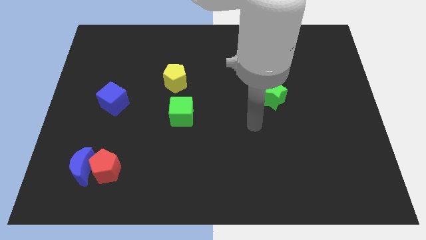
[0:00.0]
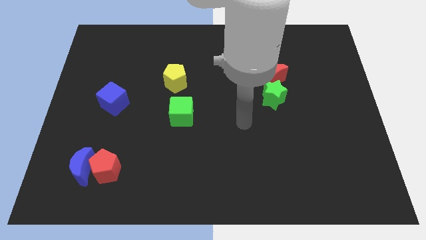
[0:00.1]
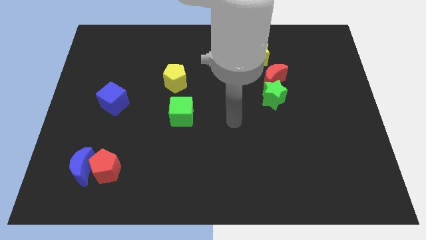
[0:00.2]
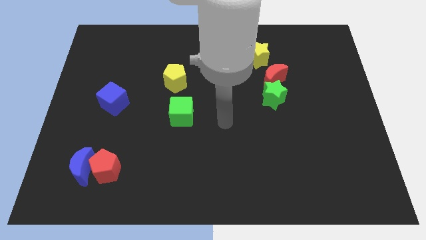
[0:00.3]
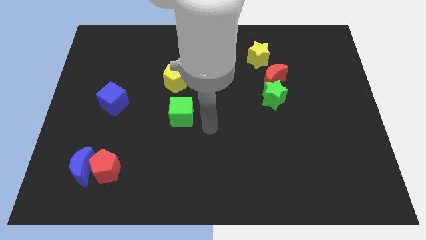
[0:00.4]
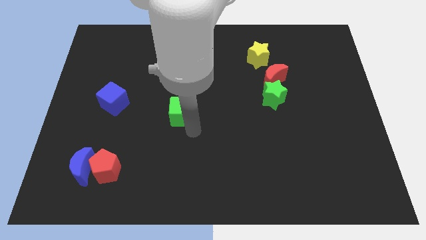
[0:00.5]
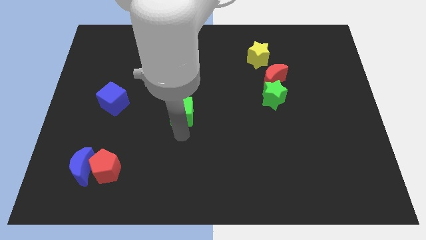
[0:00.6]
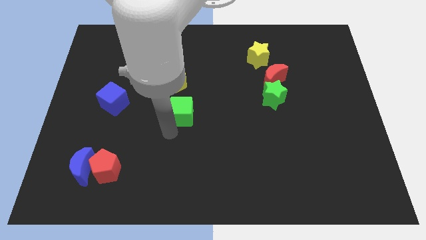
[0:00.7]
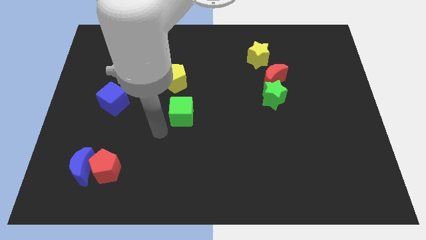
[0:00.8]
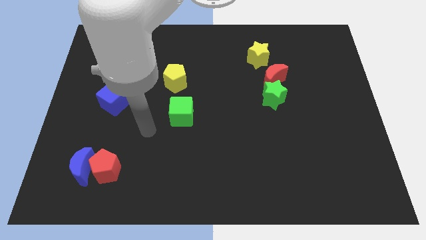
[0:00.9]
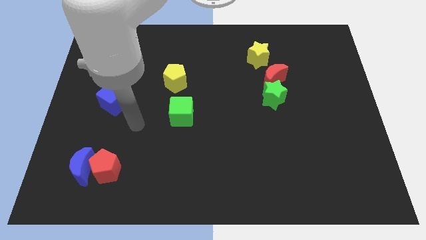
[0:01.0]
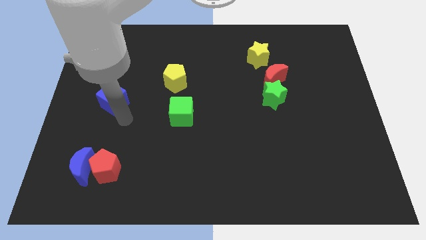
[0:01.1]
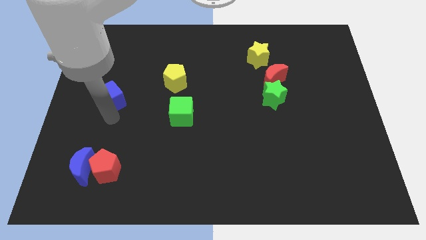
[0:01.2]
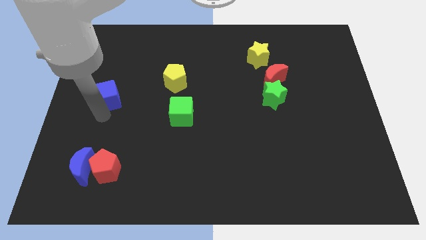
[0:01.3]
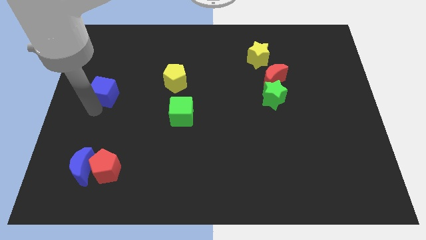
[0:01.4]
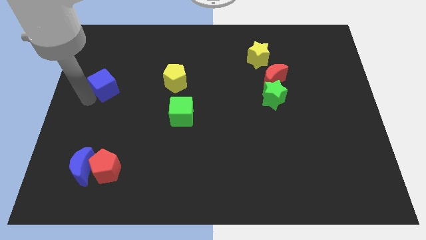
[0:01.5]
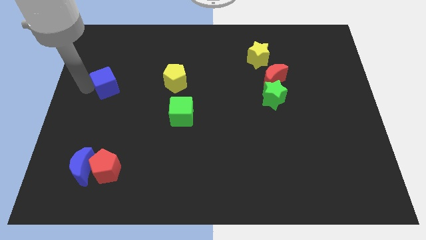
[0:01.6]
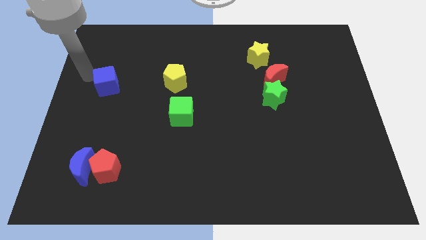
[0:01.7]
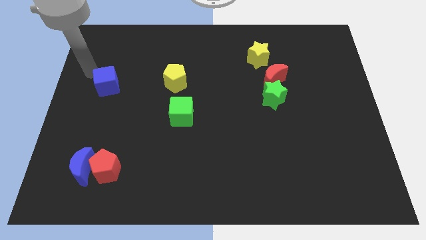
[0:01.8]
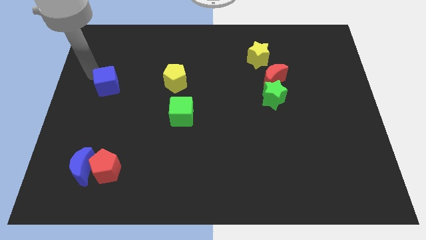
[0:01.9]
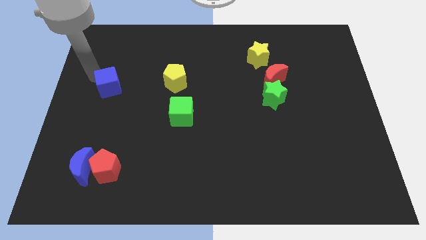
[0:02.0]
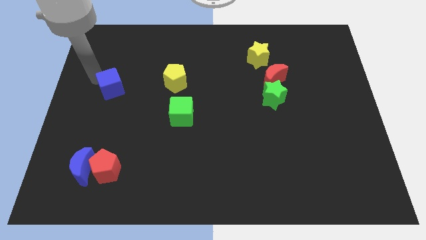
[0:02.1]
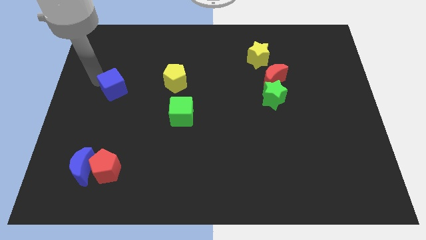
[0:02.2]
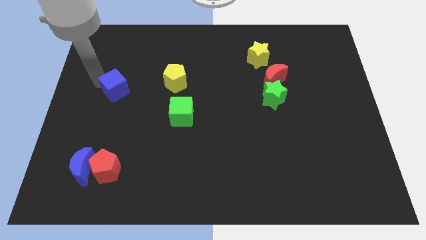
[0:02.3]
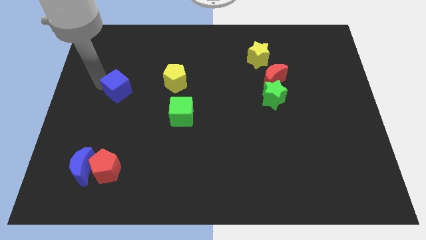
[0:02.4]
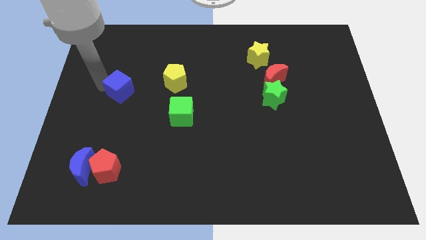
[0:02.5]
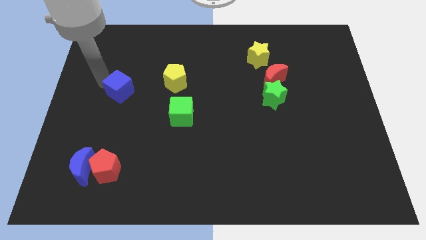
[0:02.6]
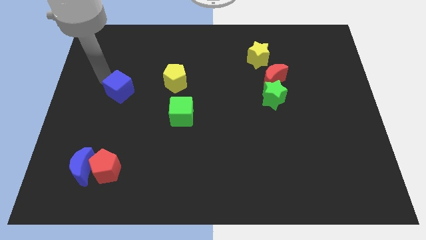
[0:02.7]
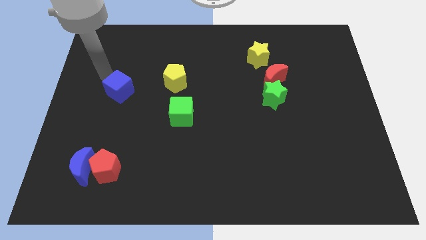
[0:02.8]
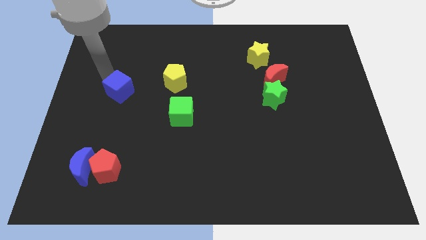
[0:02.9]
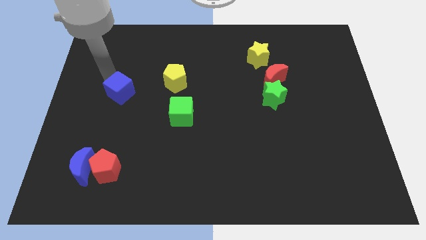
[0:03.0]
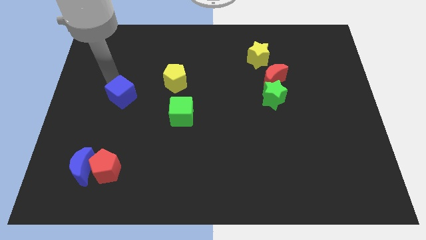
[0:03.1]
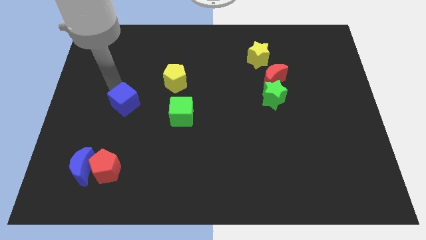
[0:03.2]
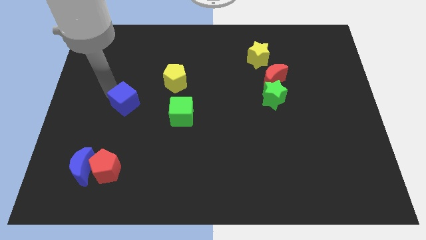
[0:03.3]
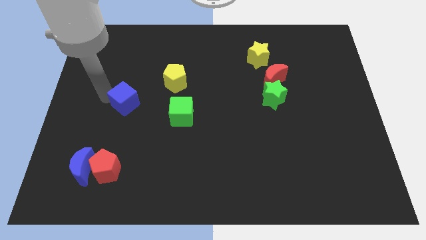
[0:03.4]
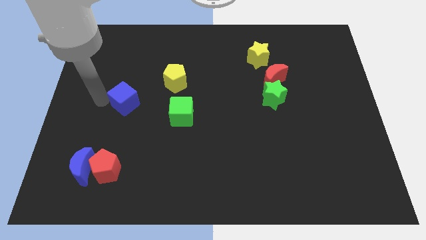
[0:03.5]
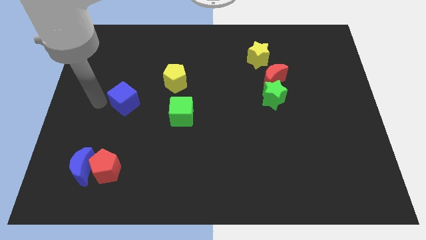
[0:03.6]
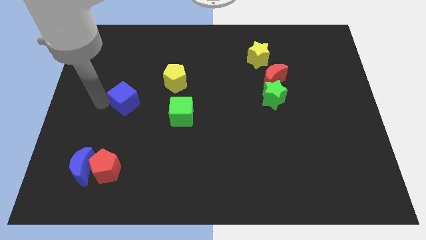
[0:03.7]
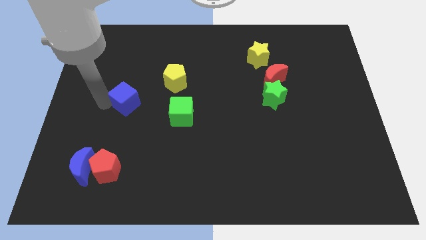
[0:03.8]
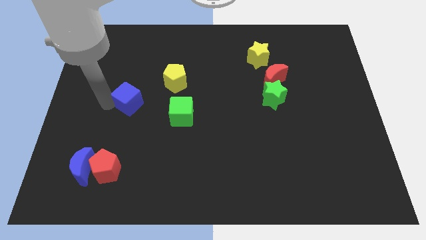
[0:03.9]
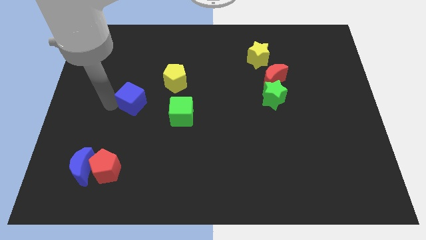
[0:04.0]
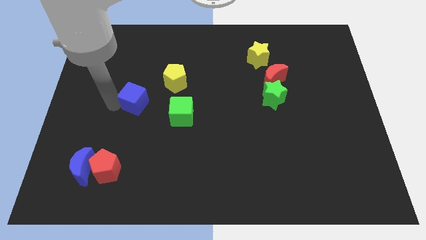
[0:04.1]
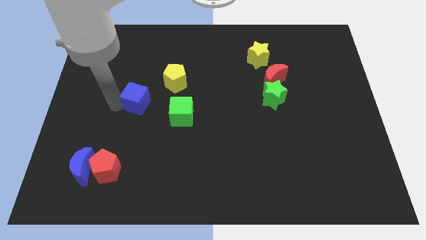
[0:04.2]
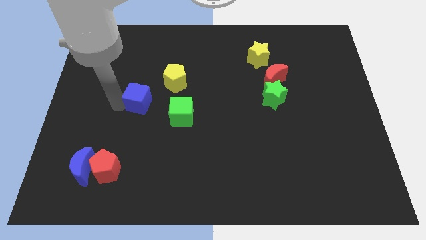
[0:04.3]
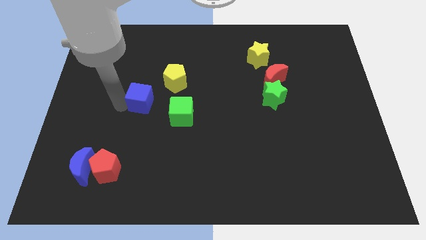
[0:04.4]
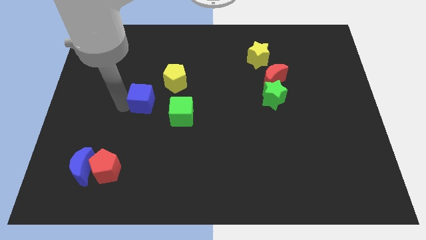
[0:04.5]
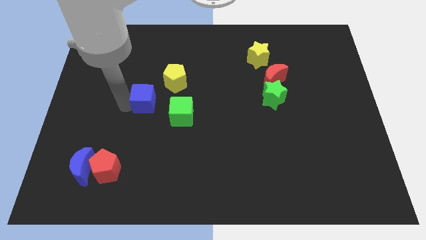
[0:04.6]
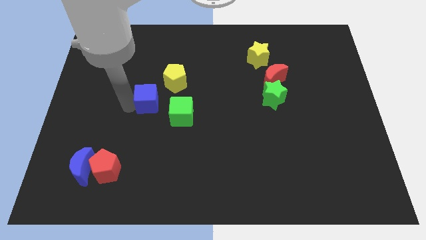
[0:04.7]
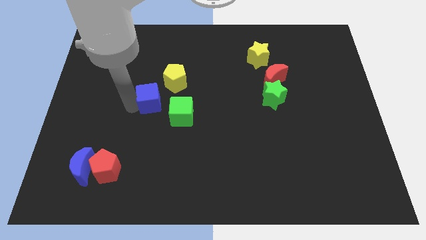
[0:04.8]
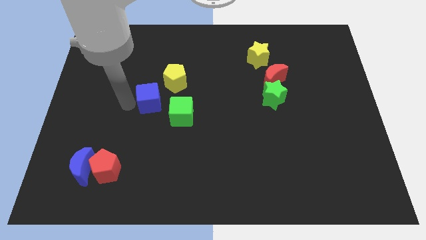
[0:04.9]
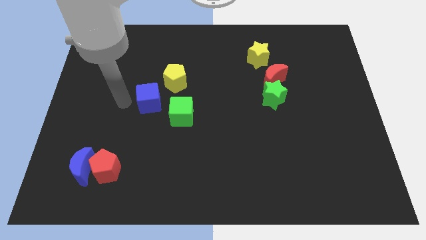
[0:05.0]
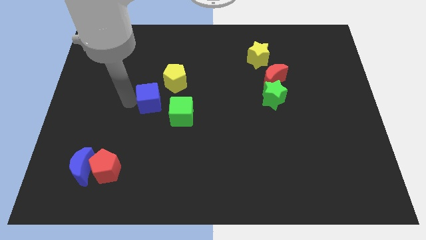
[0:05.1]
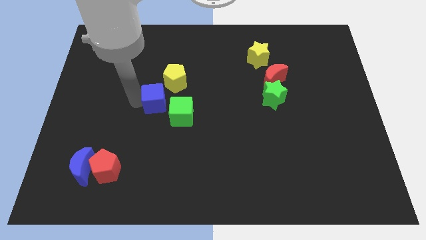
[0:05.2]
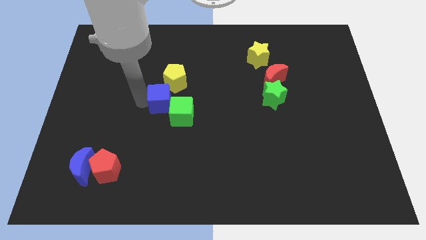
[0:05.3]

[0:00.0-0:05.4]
move the blue cube to the middle

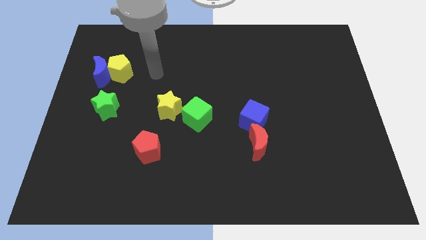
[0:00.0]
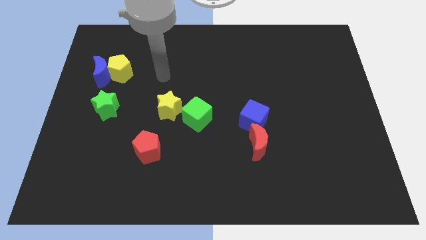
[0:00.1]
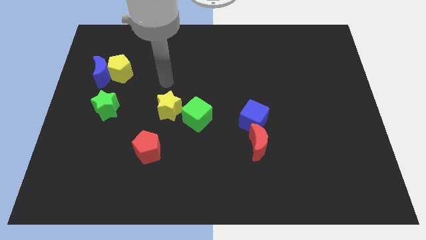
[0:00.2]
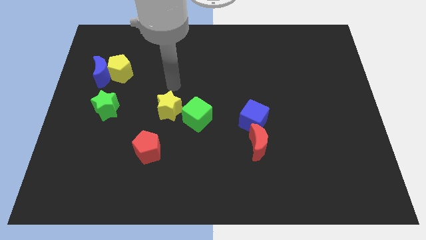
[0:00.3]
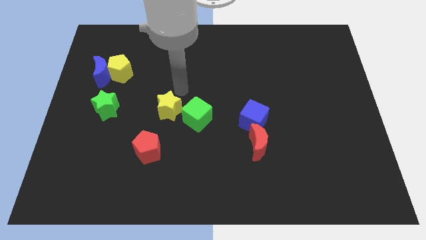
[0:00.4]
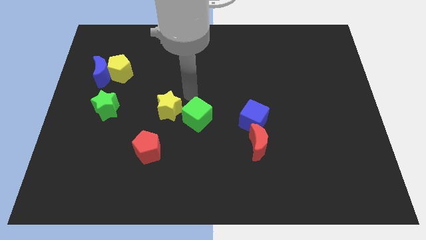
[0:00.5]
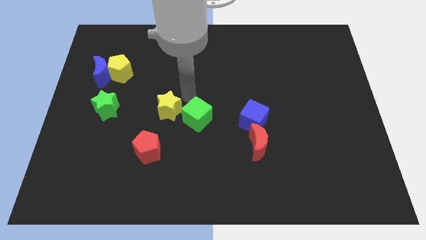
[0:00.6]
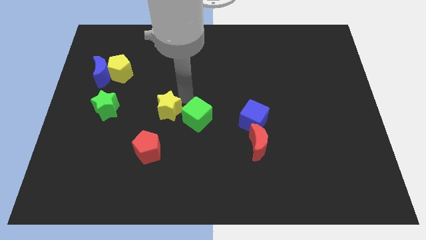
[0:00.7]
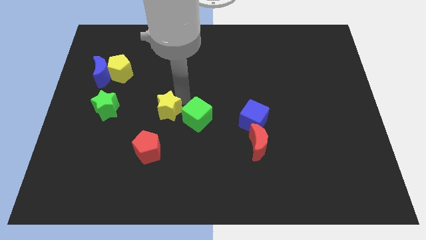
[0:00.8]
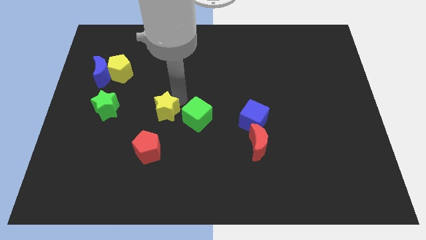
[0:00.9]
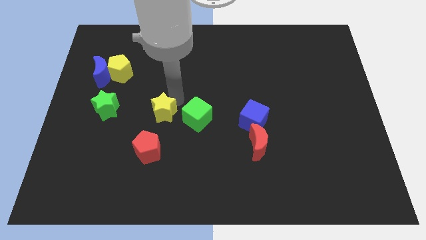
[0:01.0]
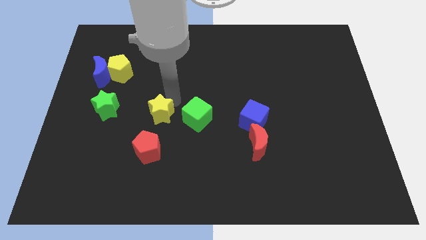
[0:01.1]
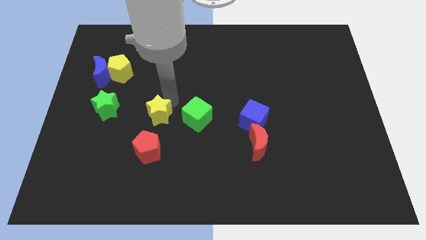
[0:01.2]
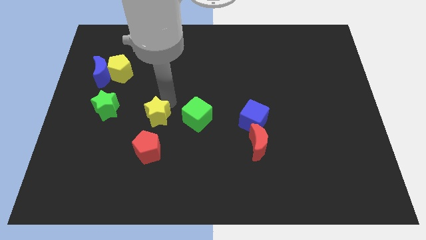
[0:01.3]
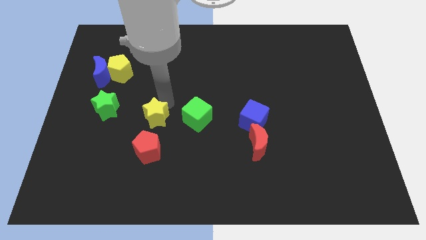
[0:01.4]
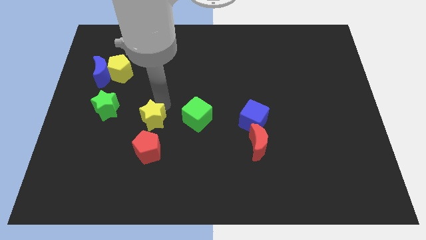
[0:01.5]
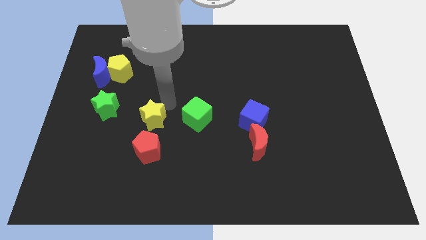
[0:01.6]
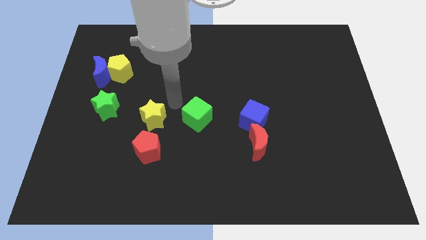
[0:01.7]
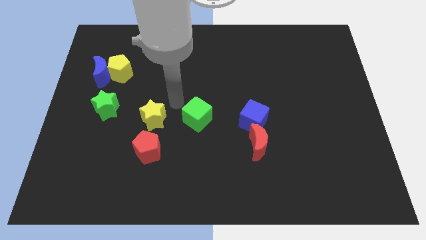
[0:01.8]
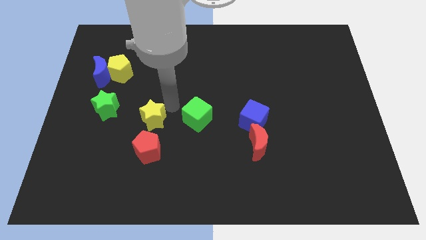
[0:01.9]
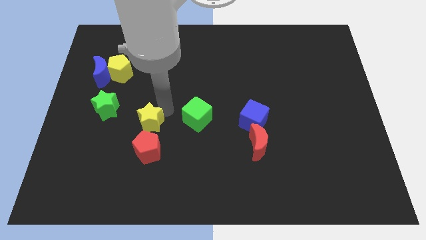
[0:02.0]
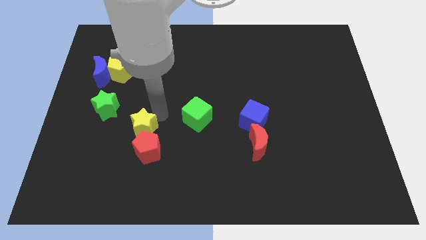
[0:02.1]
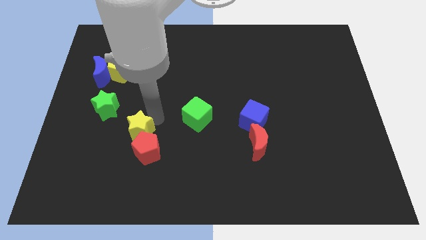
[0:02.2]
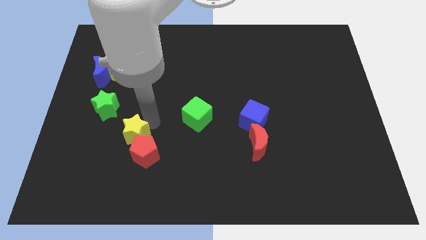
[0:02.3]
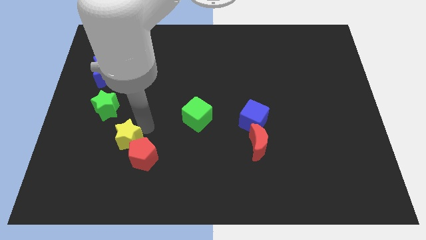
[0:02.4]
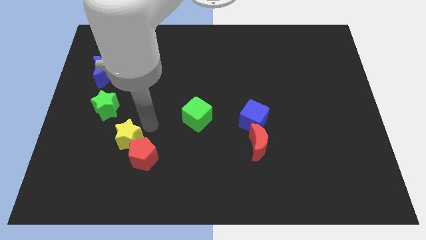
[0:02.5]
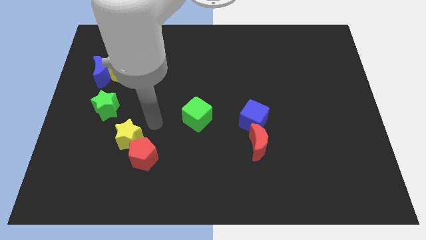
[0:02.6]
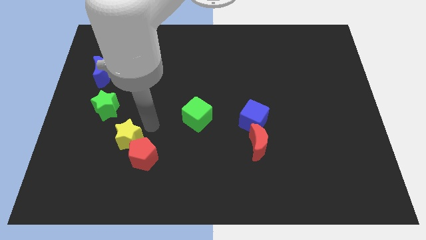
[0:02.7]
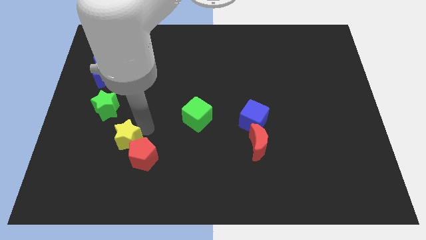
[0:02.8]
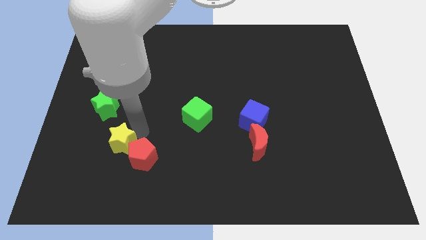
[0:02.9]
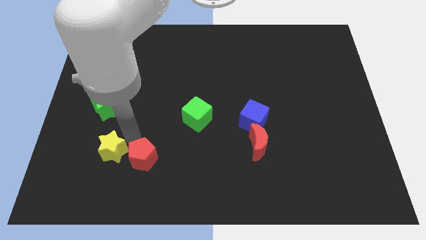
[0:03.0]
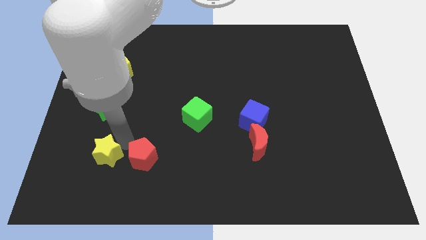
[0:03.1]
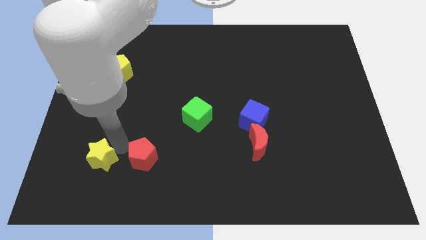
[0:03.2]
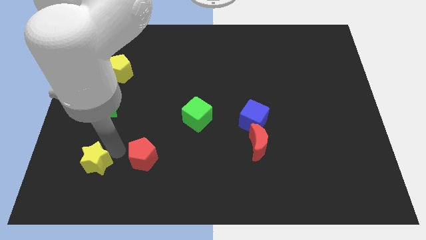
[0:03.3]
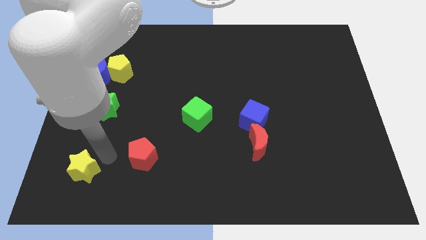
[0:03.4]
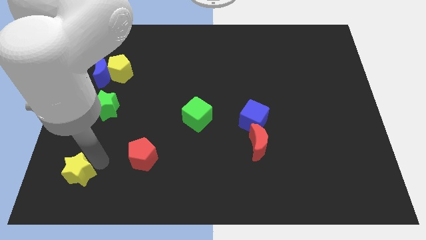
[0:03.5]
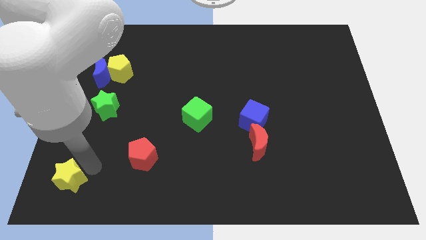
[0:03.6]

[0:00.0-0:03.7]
move the yellow star to the bottom left of the board
